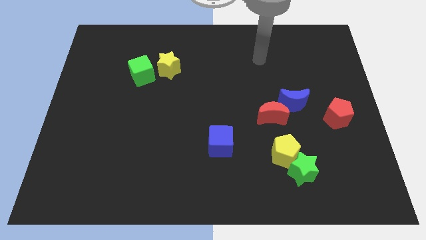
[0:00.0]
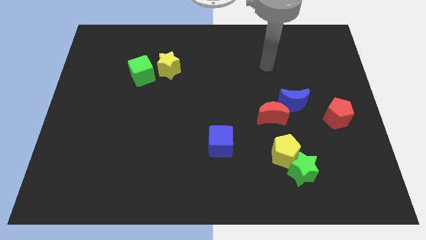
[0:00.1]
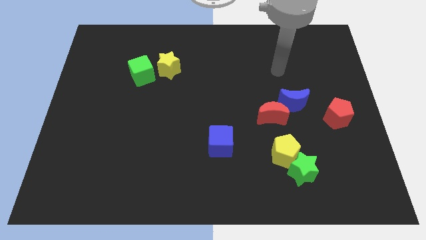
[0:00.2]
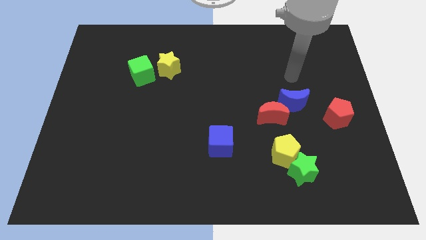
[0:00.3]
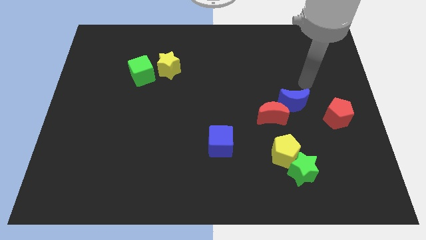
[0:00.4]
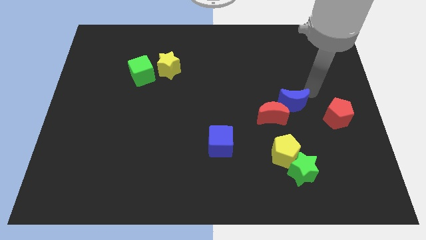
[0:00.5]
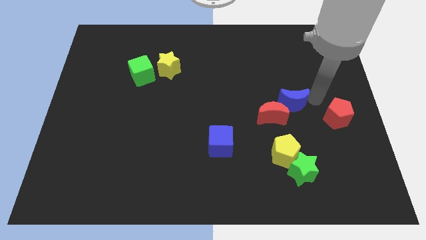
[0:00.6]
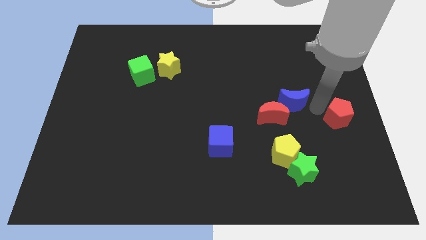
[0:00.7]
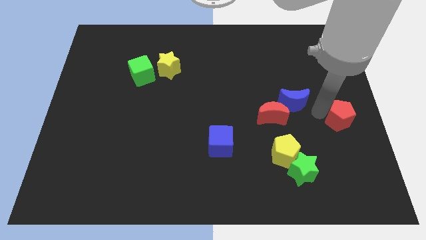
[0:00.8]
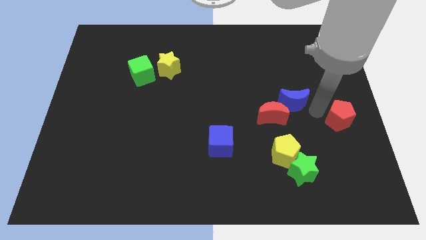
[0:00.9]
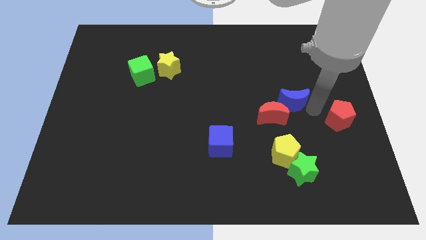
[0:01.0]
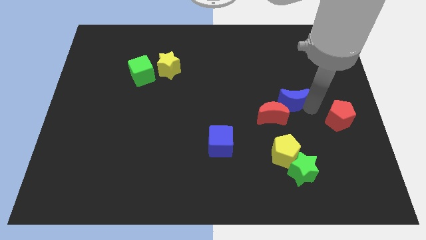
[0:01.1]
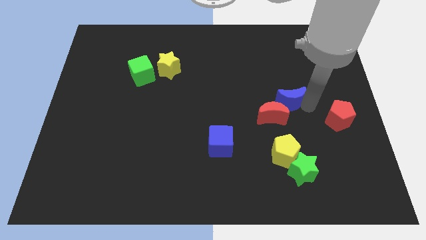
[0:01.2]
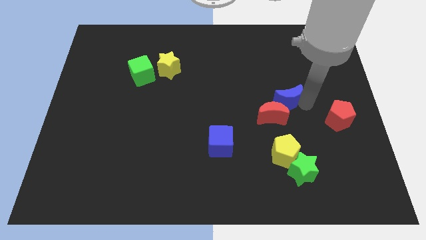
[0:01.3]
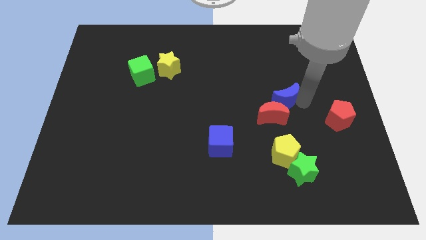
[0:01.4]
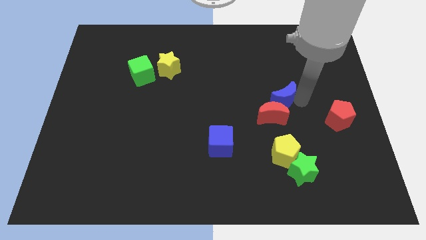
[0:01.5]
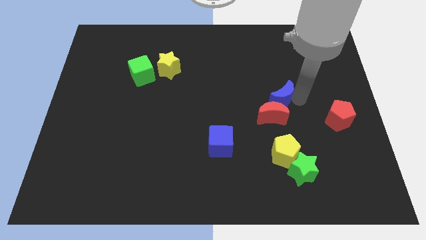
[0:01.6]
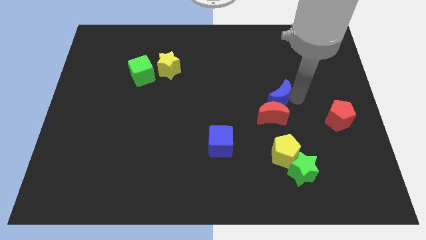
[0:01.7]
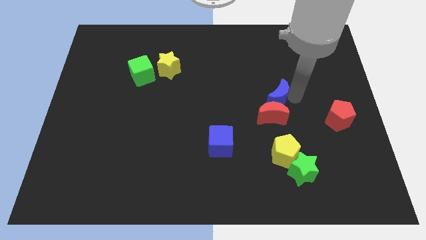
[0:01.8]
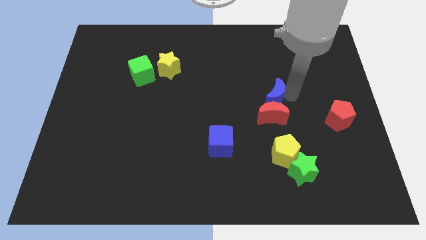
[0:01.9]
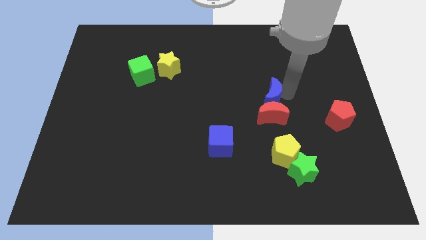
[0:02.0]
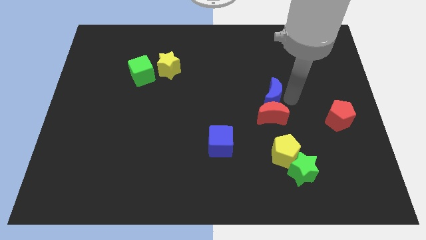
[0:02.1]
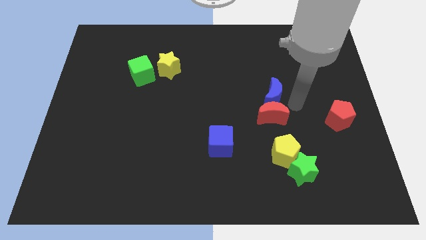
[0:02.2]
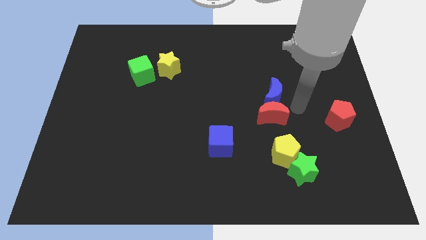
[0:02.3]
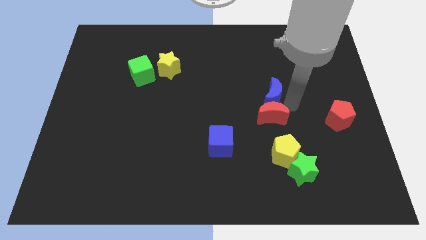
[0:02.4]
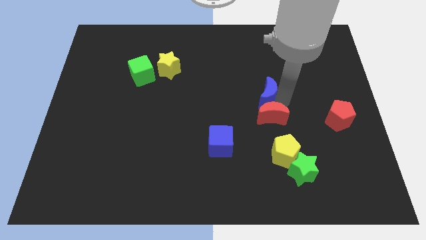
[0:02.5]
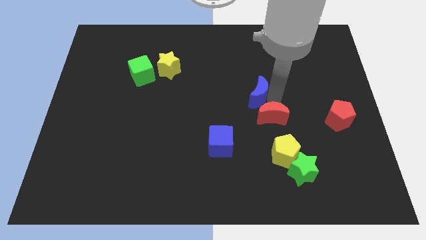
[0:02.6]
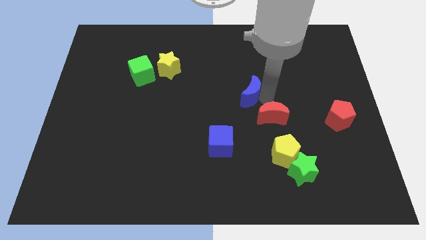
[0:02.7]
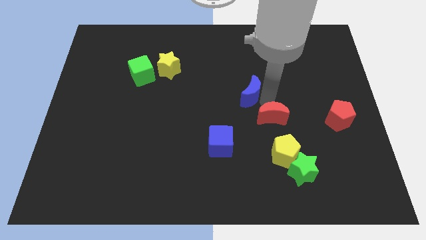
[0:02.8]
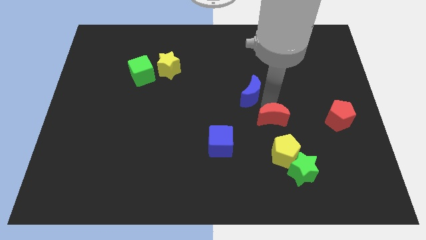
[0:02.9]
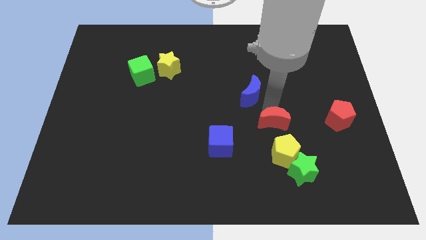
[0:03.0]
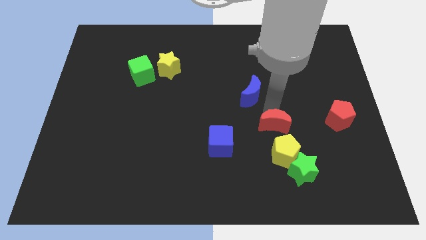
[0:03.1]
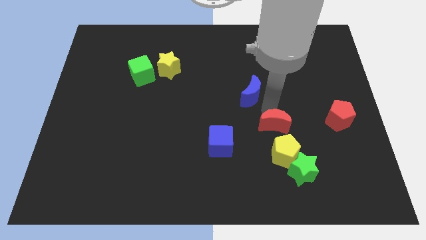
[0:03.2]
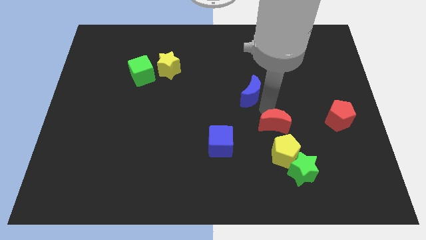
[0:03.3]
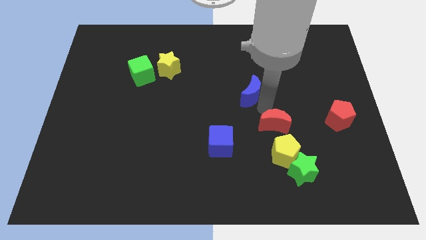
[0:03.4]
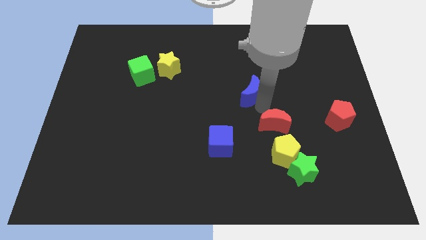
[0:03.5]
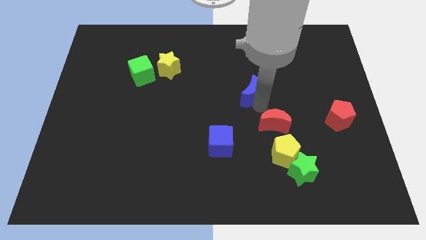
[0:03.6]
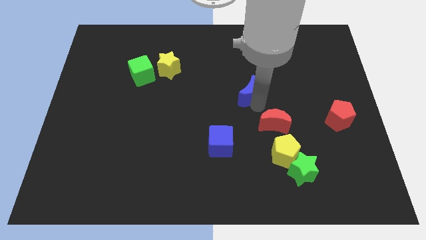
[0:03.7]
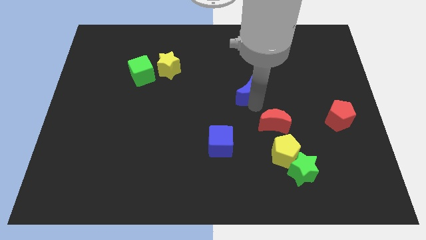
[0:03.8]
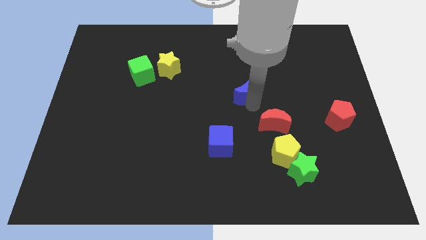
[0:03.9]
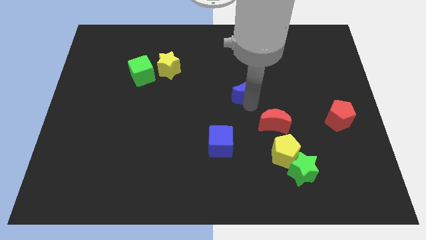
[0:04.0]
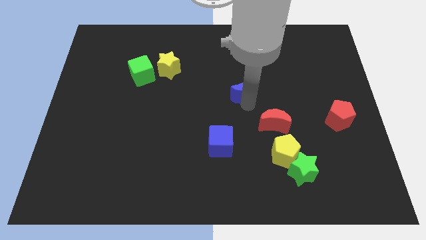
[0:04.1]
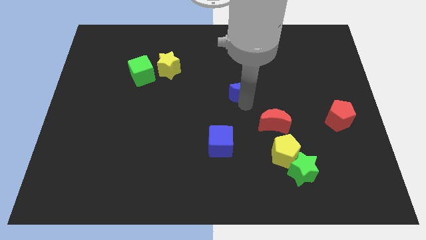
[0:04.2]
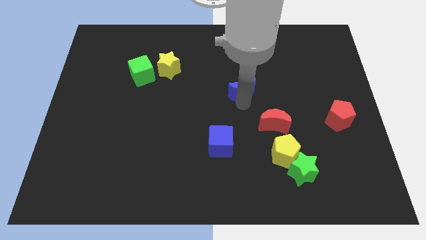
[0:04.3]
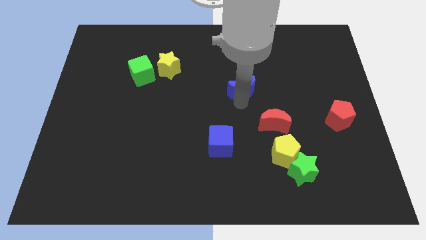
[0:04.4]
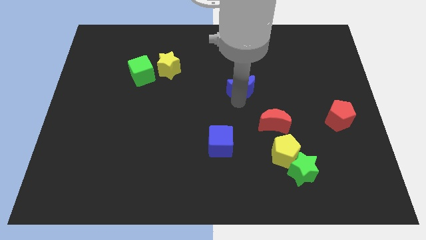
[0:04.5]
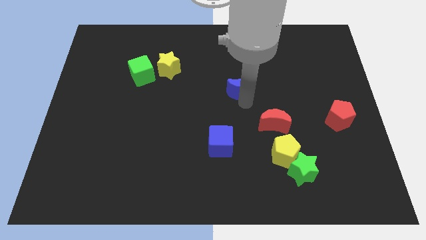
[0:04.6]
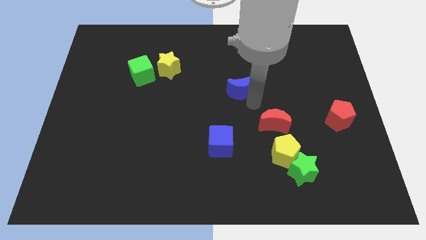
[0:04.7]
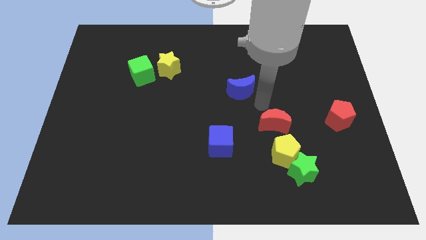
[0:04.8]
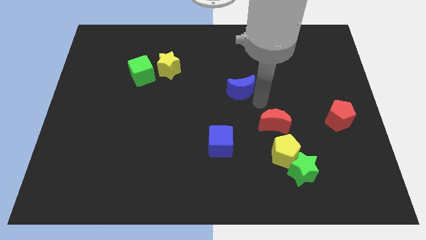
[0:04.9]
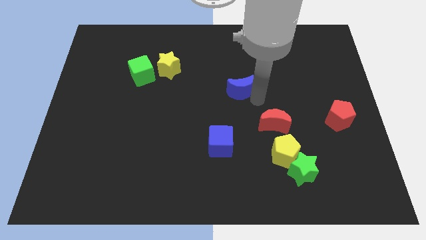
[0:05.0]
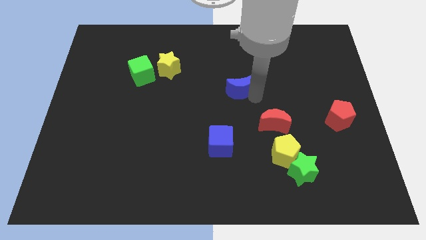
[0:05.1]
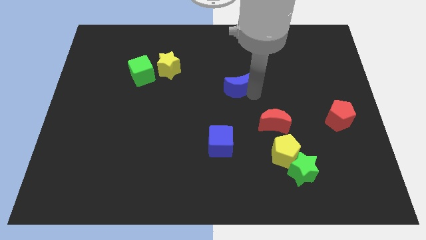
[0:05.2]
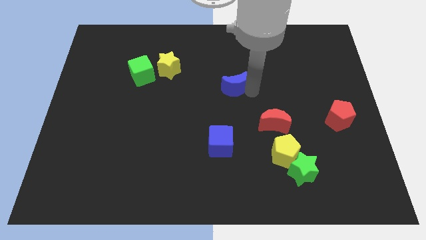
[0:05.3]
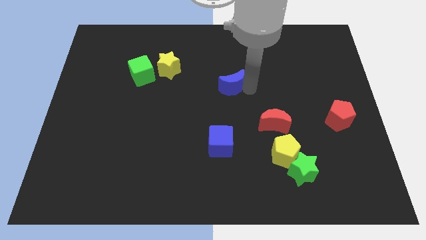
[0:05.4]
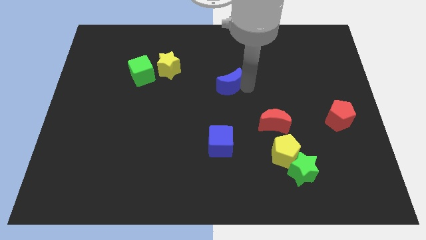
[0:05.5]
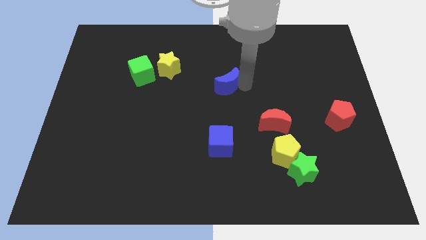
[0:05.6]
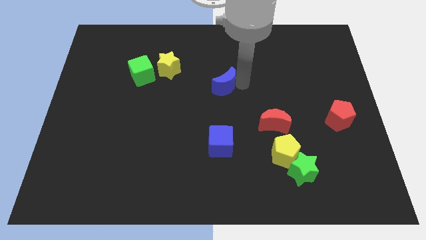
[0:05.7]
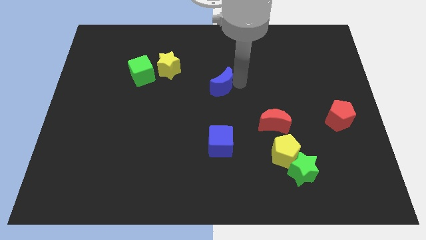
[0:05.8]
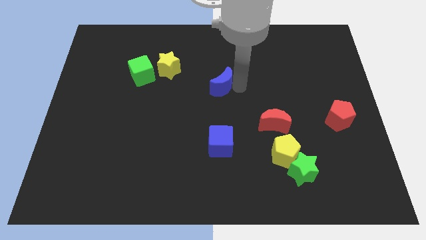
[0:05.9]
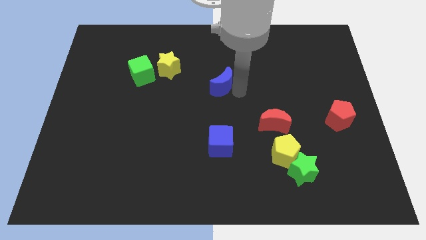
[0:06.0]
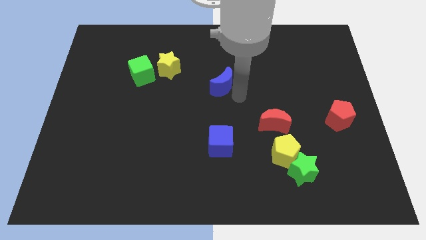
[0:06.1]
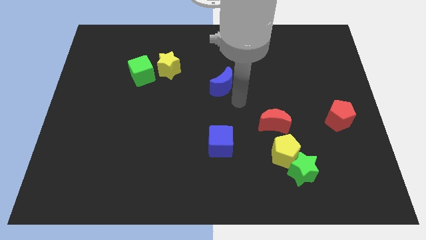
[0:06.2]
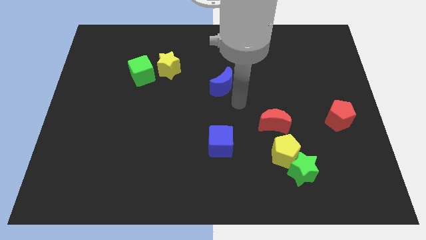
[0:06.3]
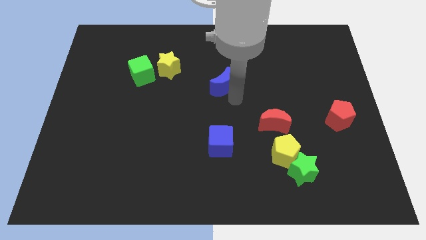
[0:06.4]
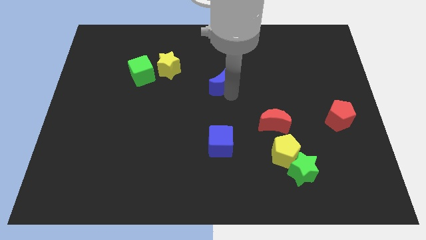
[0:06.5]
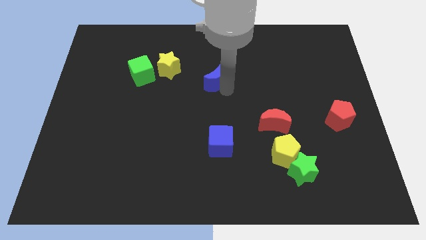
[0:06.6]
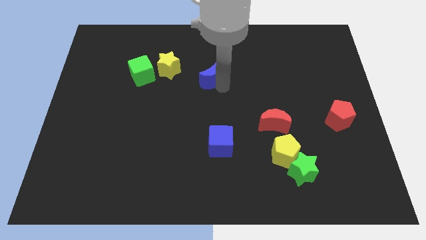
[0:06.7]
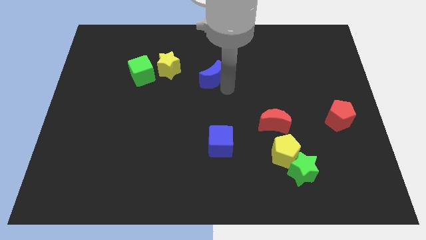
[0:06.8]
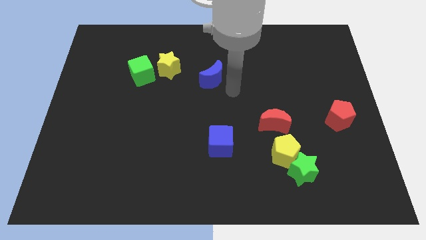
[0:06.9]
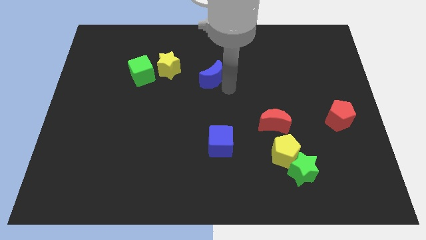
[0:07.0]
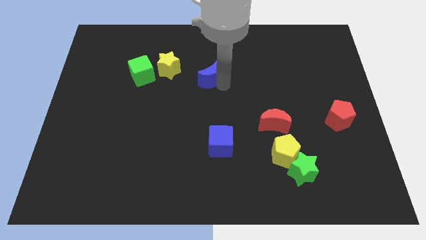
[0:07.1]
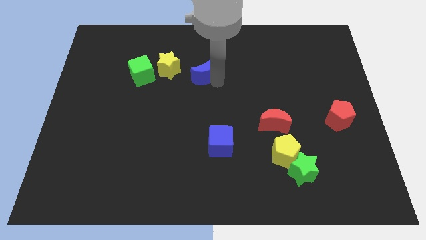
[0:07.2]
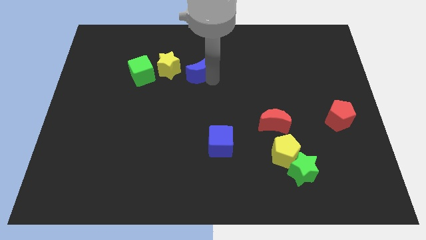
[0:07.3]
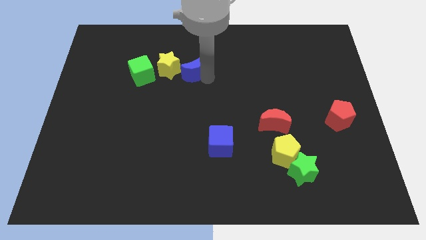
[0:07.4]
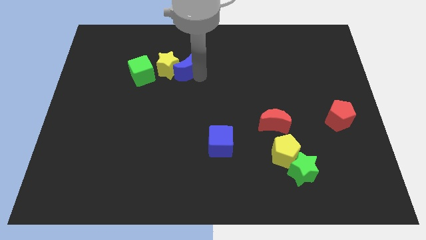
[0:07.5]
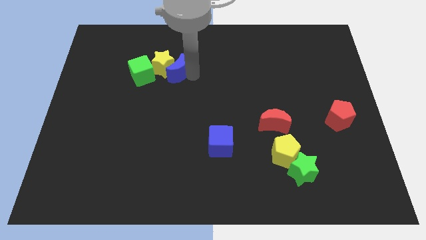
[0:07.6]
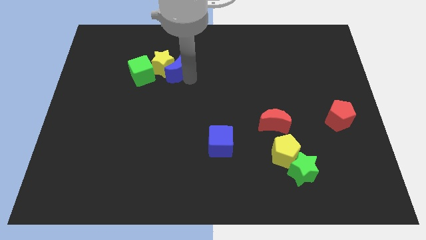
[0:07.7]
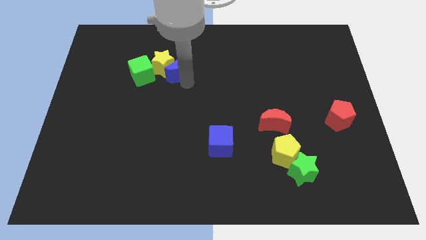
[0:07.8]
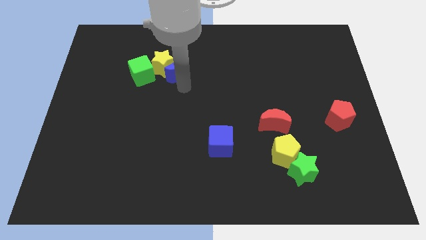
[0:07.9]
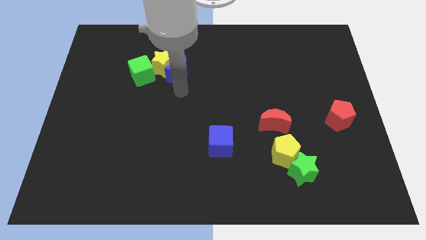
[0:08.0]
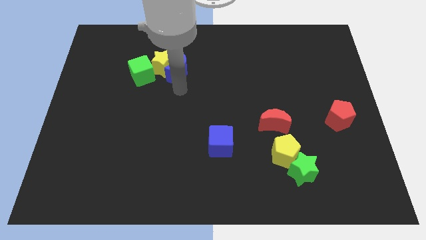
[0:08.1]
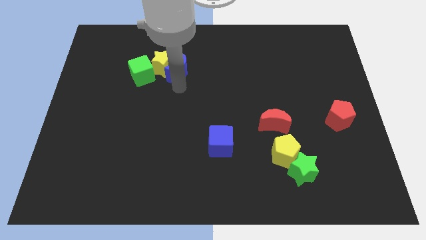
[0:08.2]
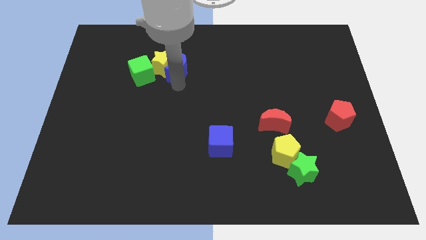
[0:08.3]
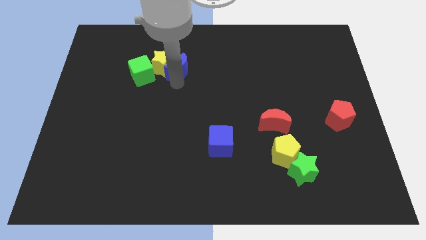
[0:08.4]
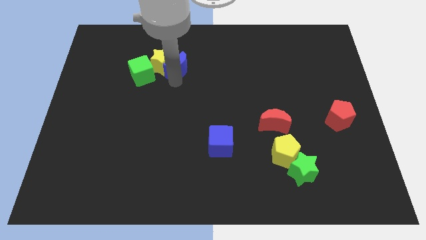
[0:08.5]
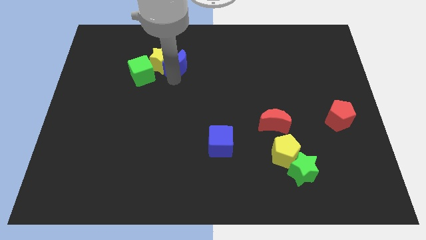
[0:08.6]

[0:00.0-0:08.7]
push the blue moon to the top right of the green cube
